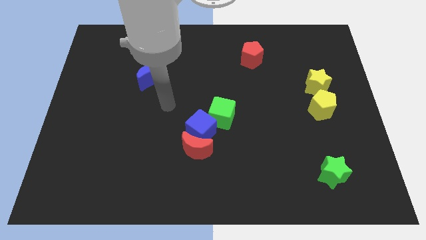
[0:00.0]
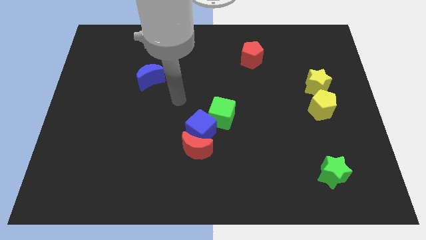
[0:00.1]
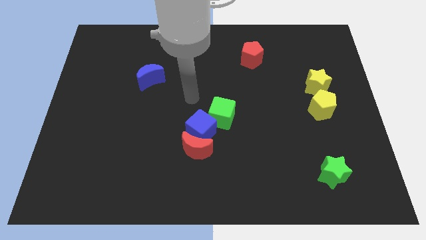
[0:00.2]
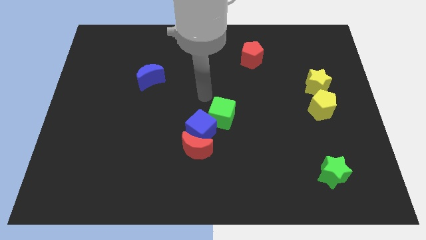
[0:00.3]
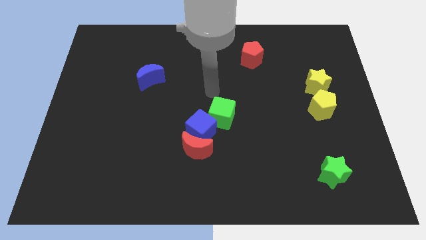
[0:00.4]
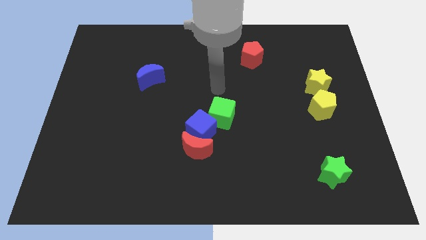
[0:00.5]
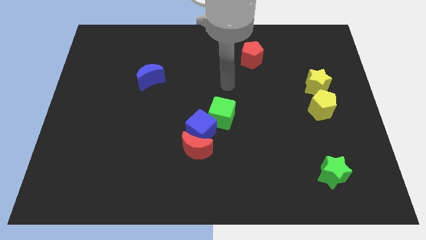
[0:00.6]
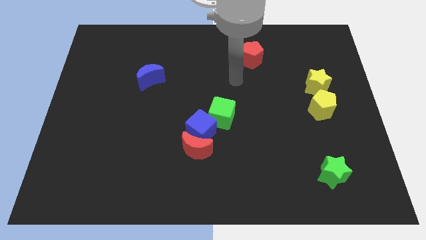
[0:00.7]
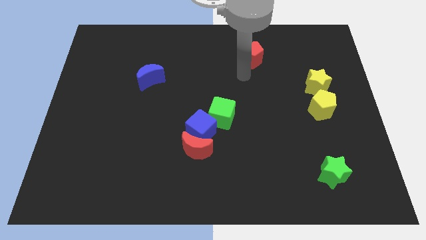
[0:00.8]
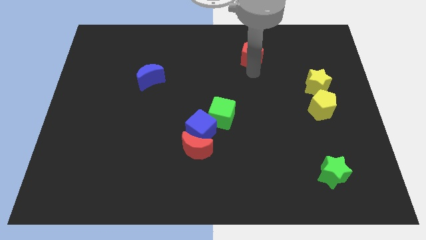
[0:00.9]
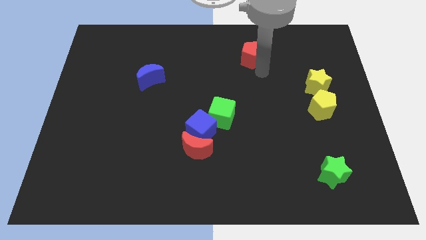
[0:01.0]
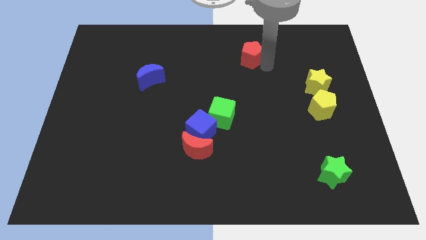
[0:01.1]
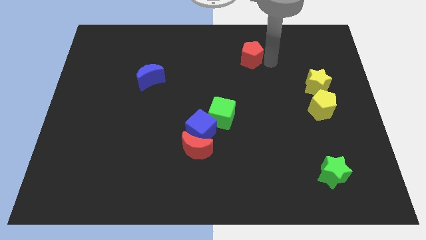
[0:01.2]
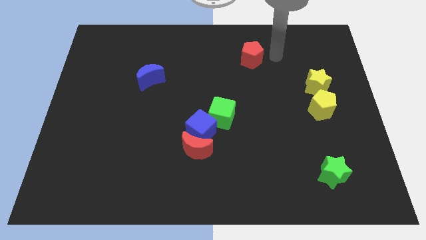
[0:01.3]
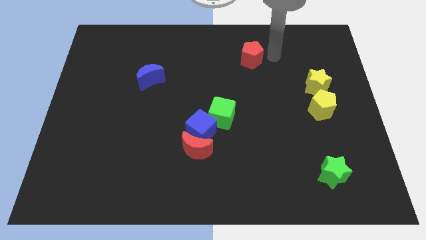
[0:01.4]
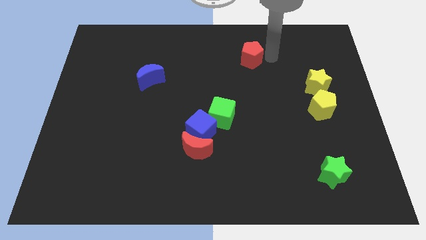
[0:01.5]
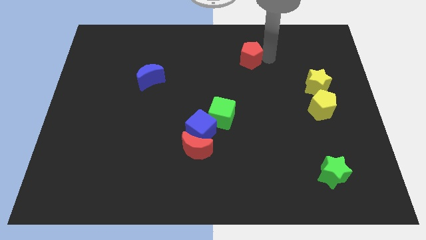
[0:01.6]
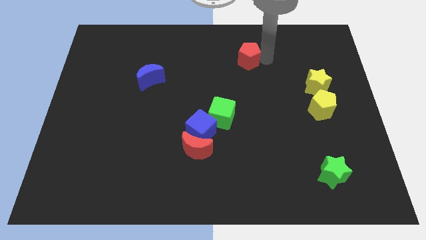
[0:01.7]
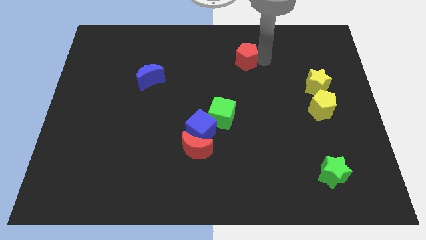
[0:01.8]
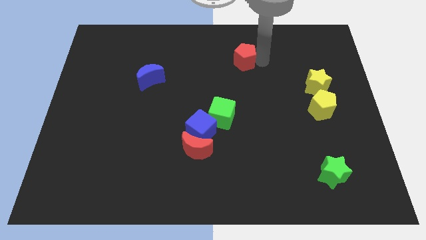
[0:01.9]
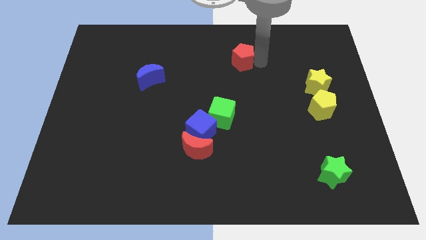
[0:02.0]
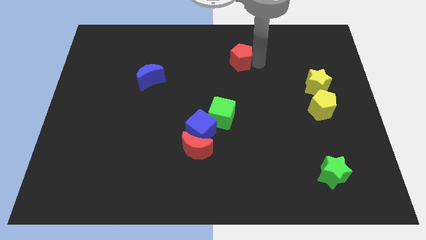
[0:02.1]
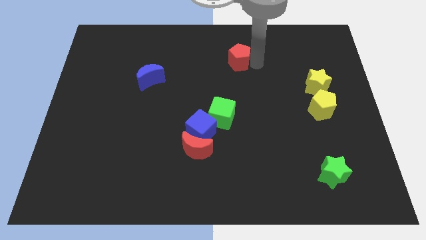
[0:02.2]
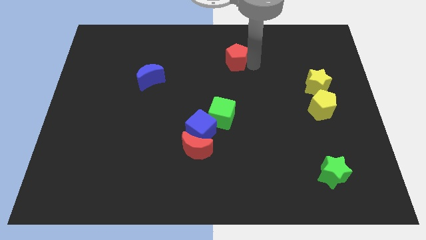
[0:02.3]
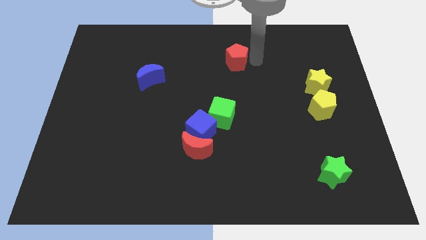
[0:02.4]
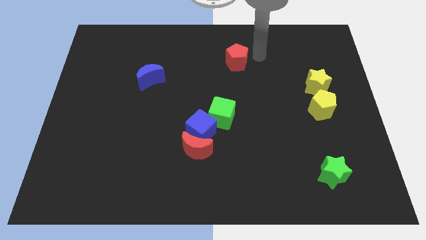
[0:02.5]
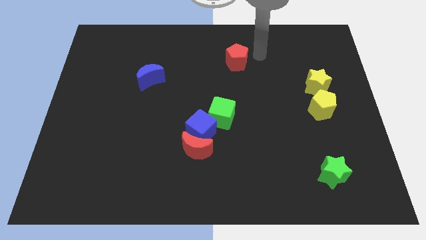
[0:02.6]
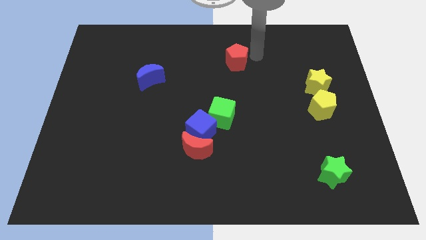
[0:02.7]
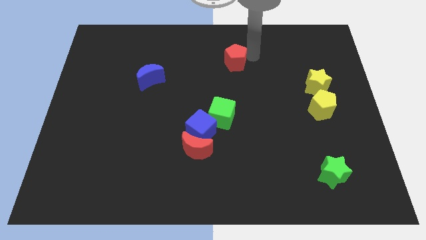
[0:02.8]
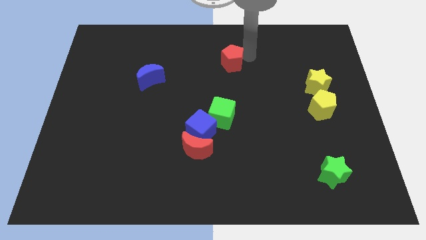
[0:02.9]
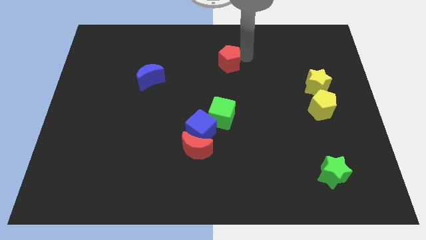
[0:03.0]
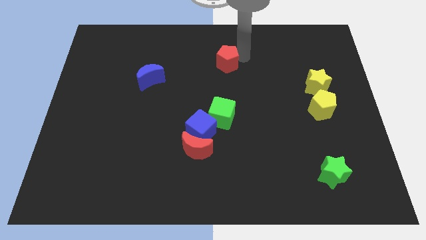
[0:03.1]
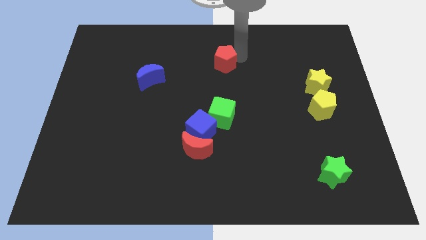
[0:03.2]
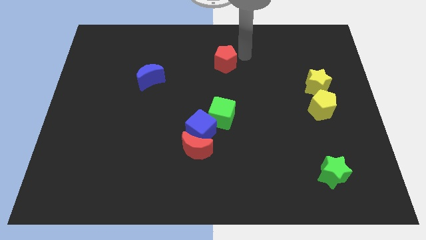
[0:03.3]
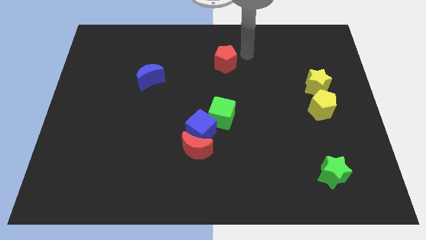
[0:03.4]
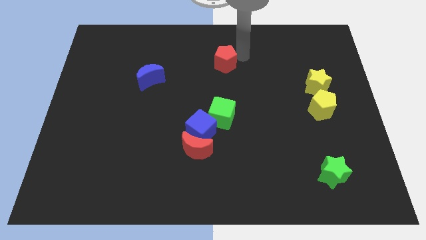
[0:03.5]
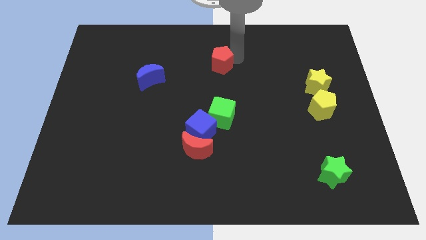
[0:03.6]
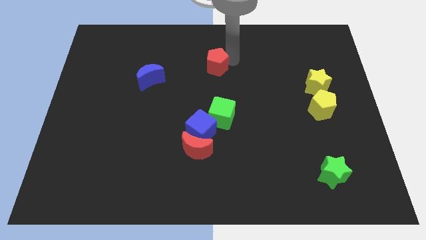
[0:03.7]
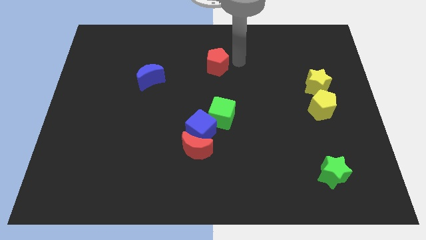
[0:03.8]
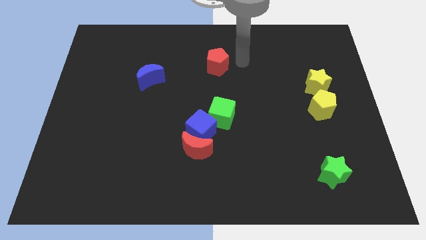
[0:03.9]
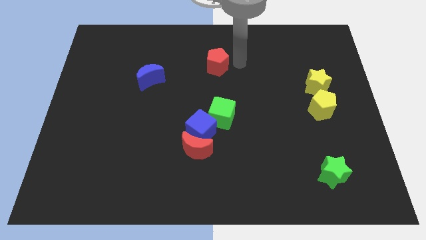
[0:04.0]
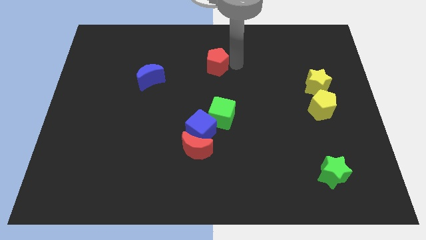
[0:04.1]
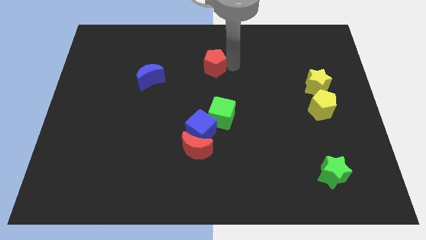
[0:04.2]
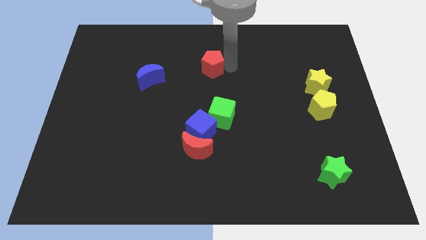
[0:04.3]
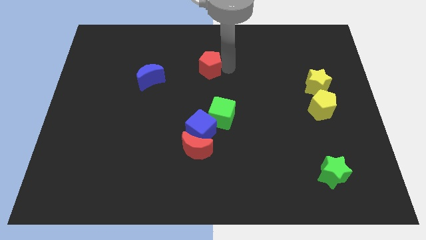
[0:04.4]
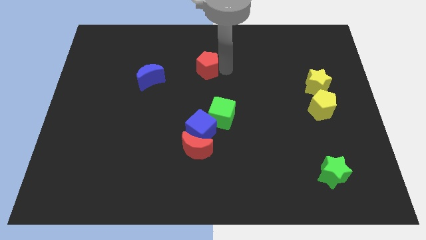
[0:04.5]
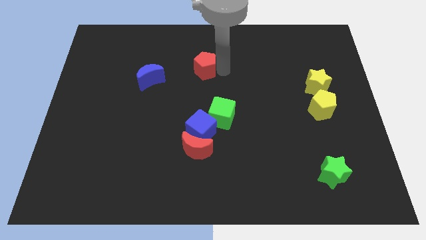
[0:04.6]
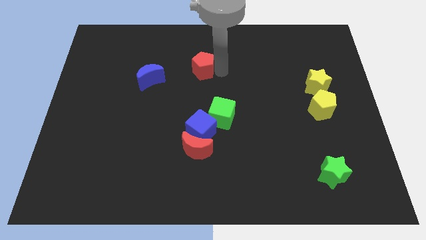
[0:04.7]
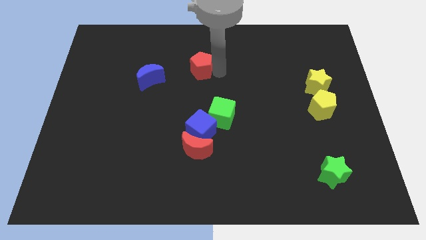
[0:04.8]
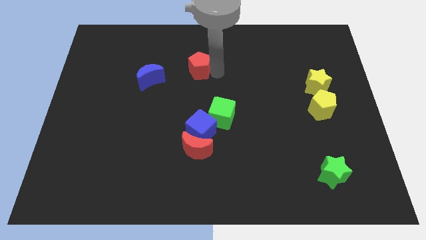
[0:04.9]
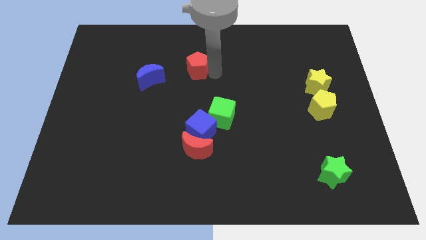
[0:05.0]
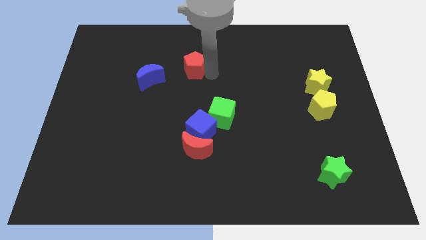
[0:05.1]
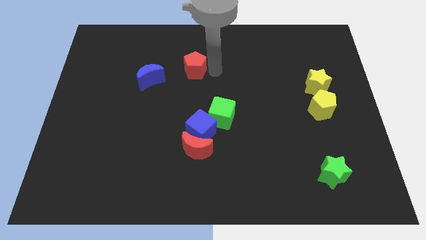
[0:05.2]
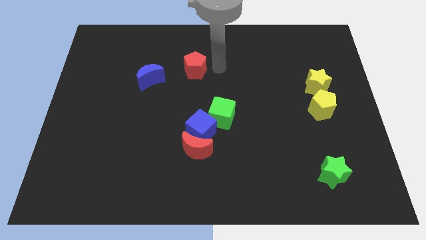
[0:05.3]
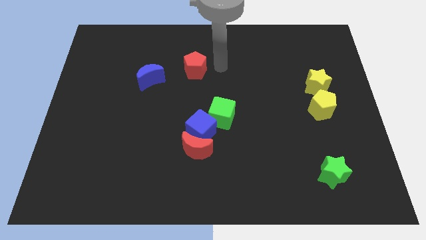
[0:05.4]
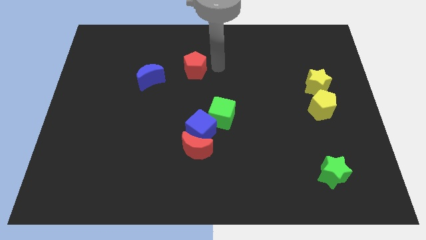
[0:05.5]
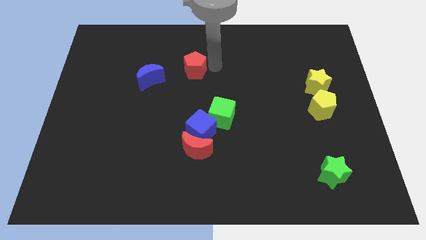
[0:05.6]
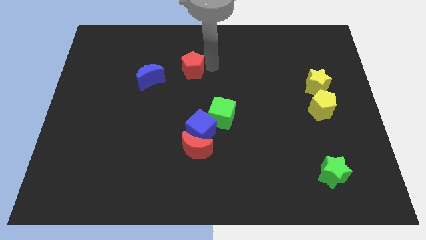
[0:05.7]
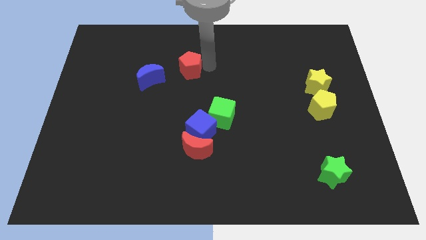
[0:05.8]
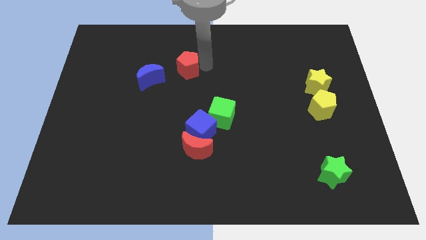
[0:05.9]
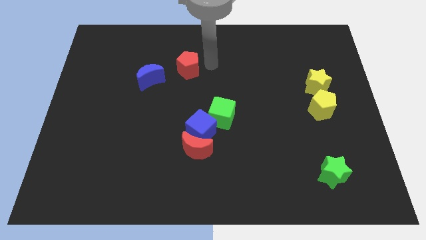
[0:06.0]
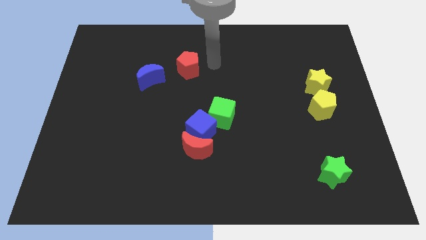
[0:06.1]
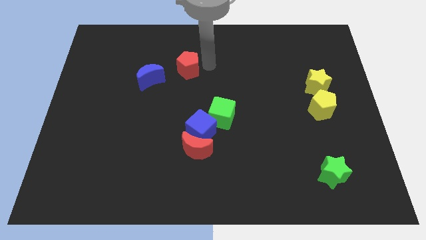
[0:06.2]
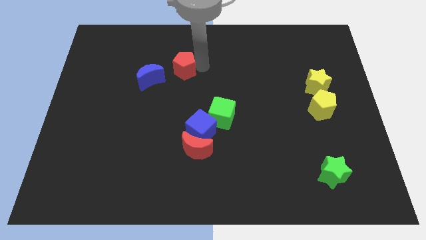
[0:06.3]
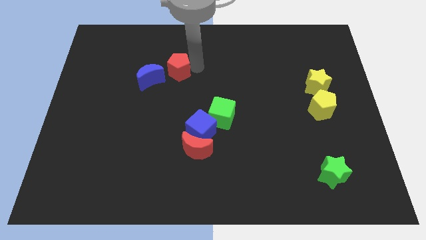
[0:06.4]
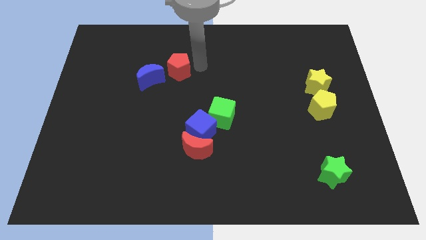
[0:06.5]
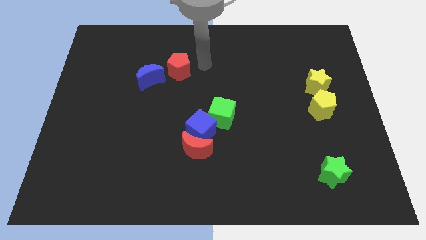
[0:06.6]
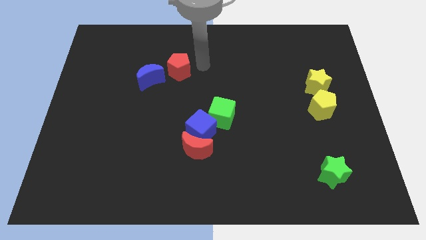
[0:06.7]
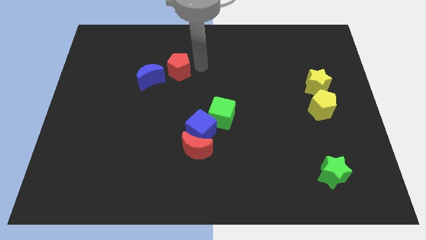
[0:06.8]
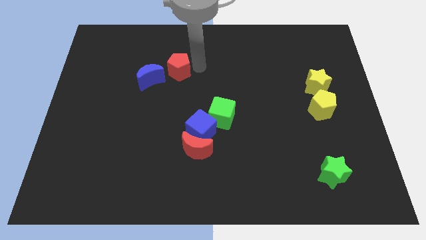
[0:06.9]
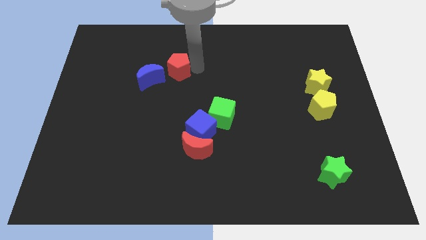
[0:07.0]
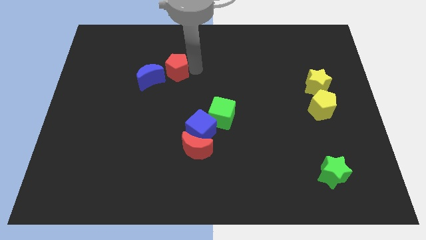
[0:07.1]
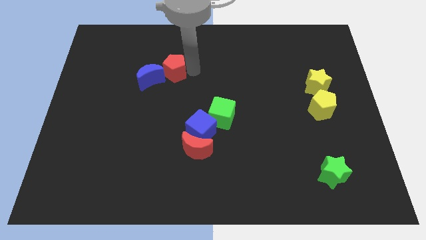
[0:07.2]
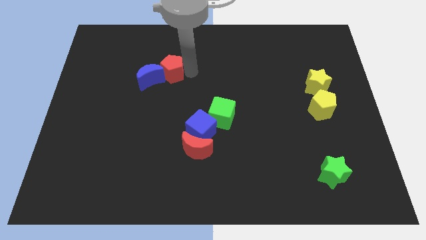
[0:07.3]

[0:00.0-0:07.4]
push the red pentagon towards the blue moon

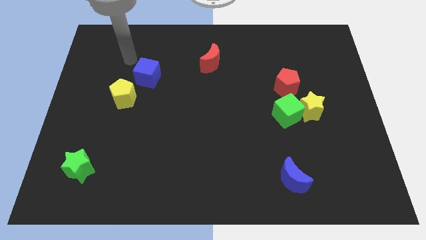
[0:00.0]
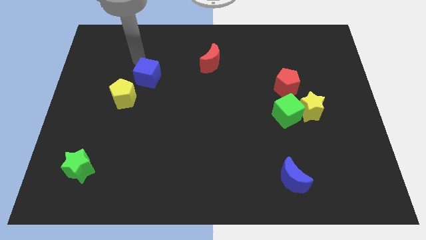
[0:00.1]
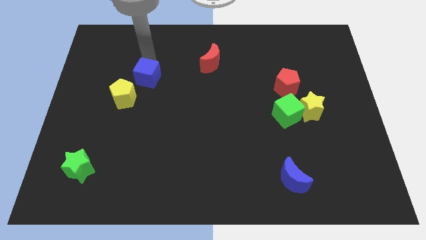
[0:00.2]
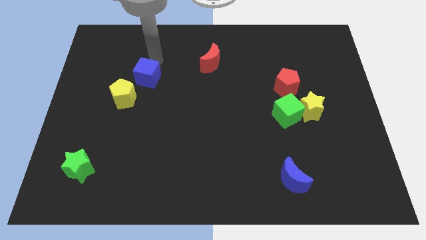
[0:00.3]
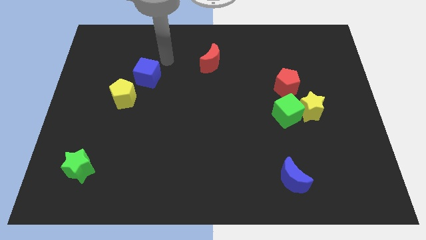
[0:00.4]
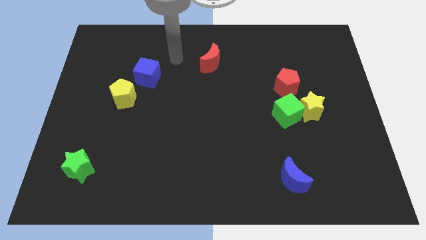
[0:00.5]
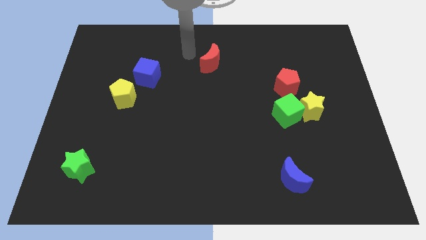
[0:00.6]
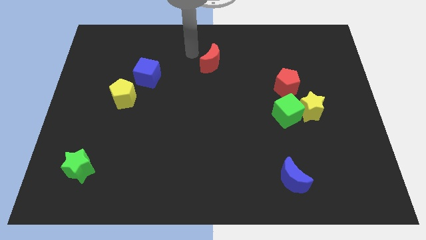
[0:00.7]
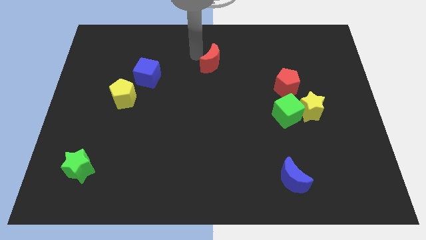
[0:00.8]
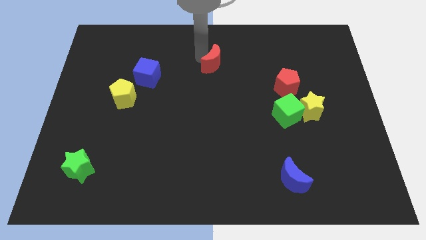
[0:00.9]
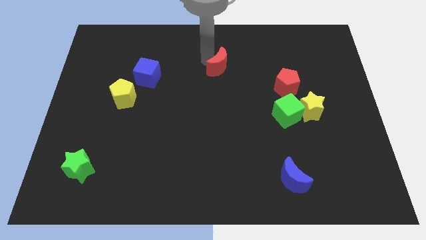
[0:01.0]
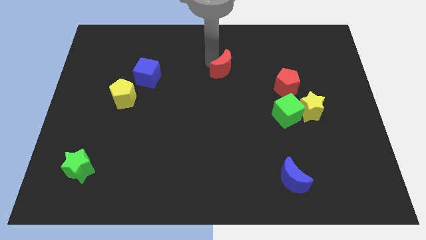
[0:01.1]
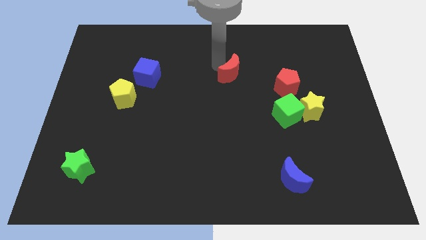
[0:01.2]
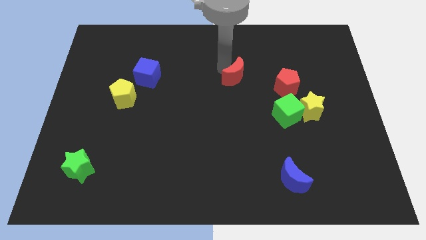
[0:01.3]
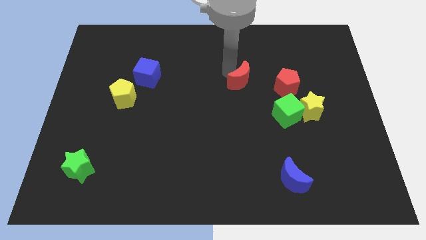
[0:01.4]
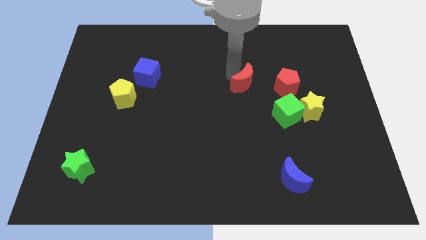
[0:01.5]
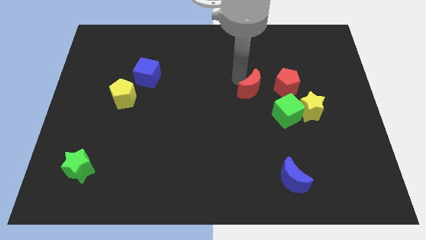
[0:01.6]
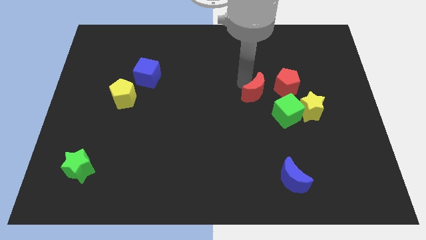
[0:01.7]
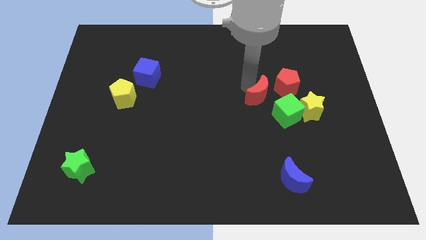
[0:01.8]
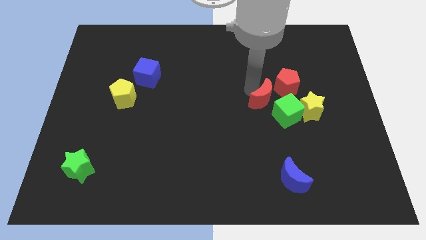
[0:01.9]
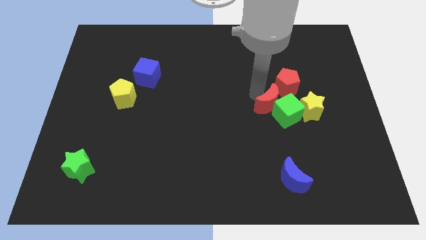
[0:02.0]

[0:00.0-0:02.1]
put the red moon to the green cube
